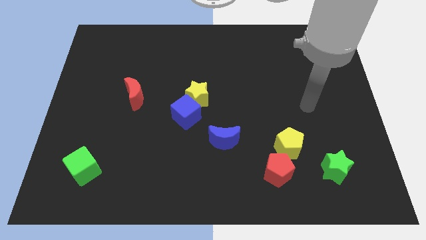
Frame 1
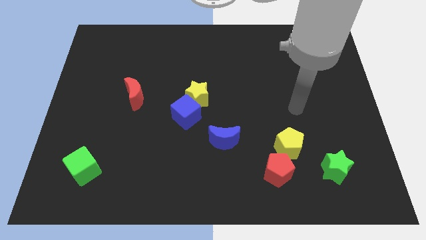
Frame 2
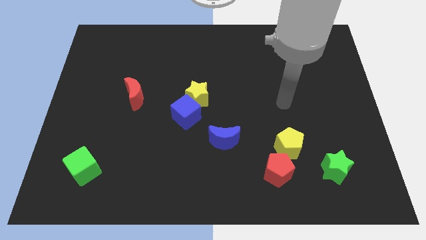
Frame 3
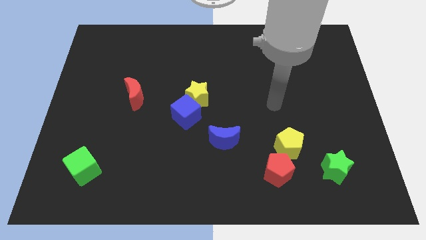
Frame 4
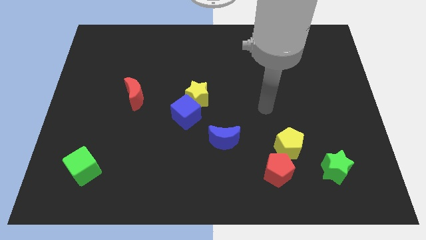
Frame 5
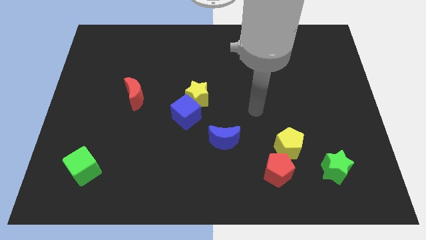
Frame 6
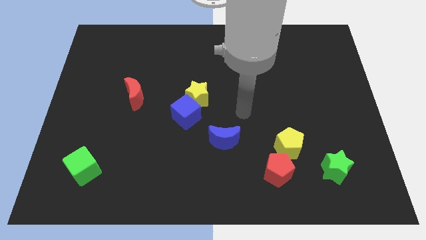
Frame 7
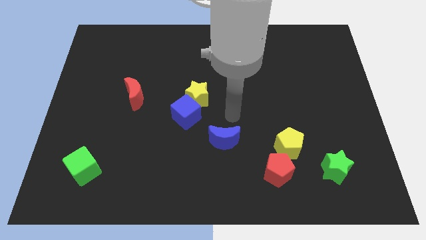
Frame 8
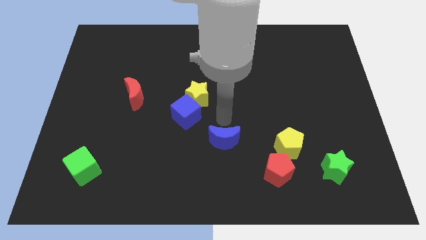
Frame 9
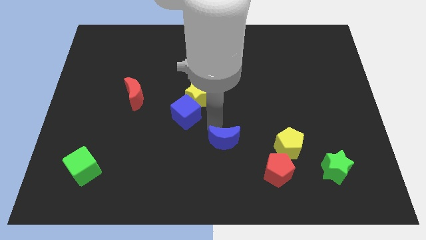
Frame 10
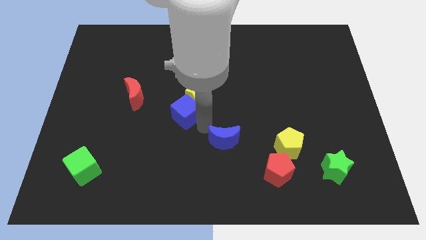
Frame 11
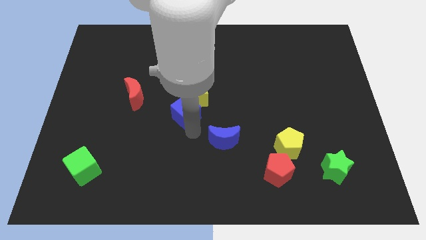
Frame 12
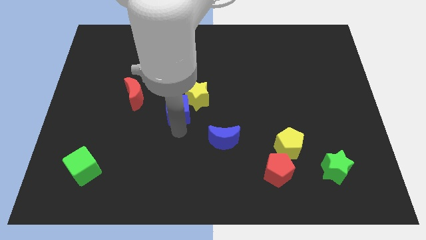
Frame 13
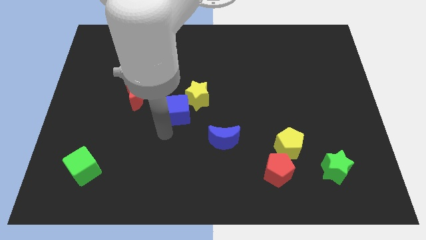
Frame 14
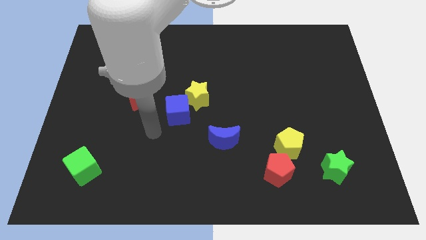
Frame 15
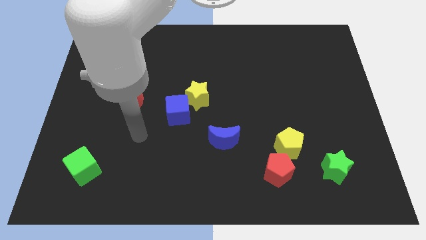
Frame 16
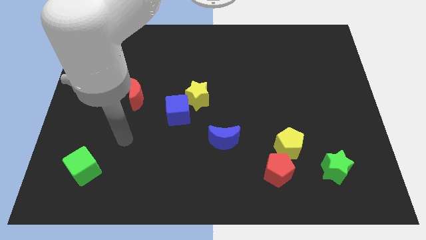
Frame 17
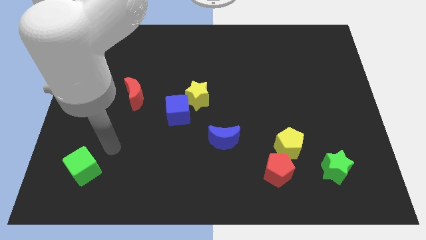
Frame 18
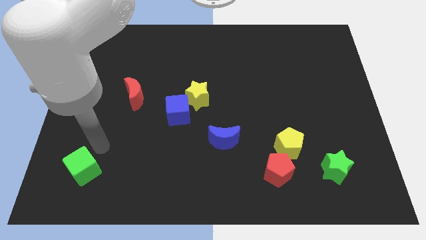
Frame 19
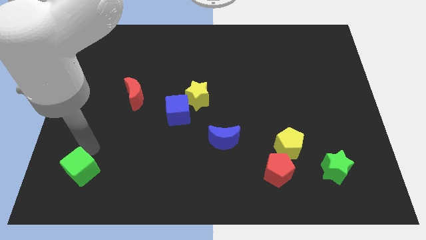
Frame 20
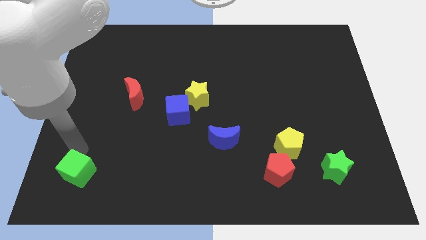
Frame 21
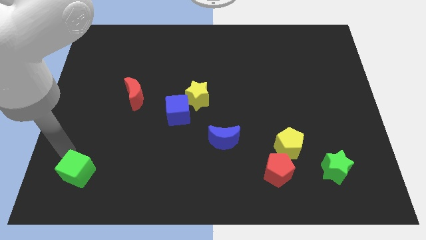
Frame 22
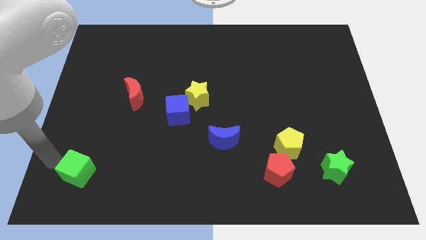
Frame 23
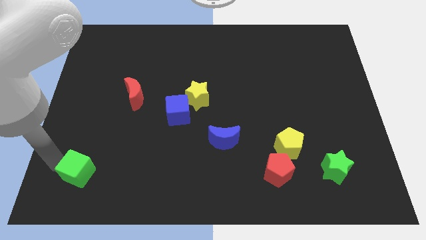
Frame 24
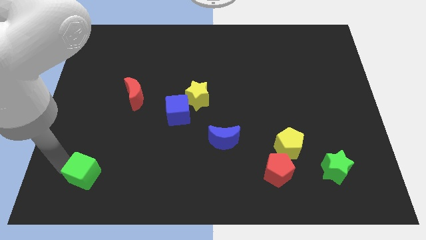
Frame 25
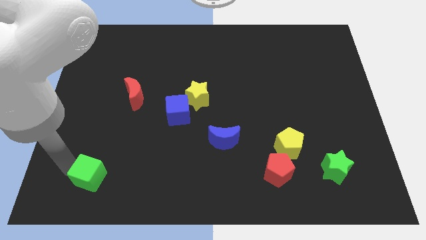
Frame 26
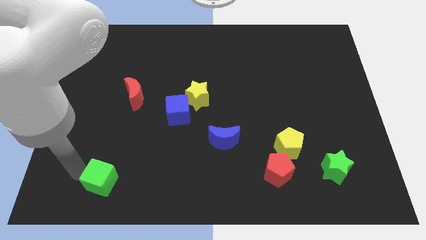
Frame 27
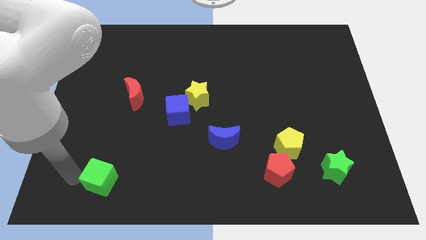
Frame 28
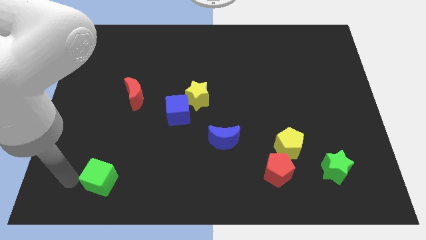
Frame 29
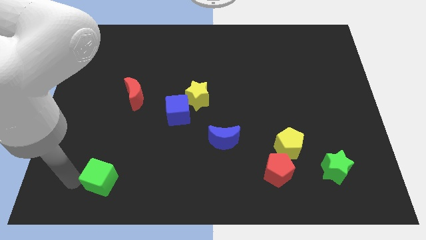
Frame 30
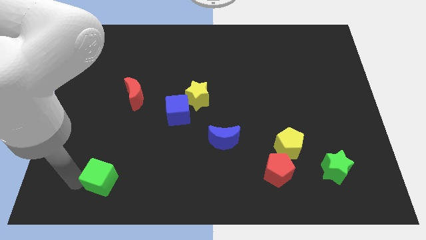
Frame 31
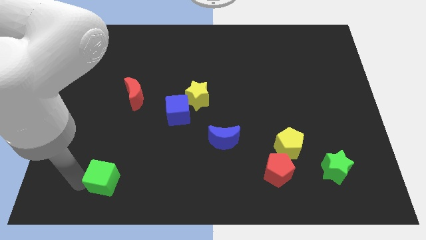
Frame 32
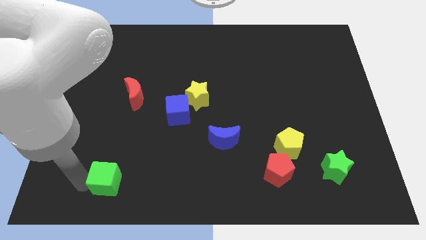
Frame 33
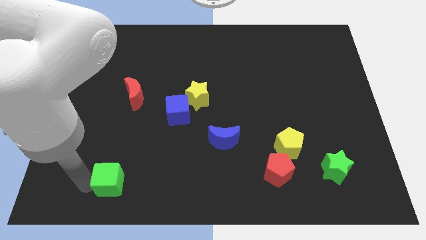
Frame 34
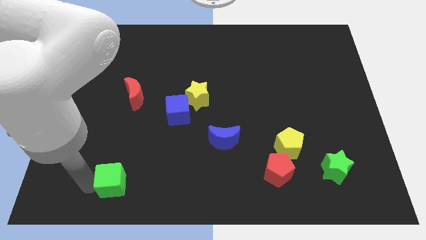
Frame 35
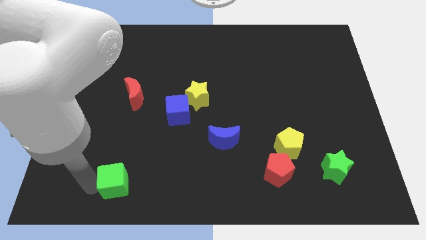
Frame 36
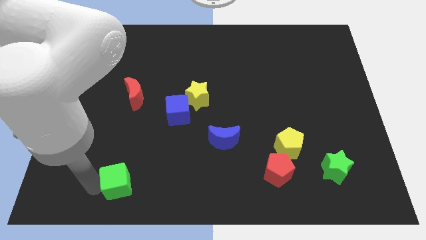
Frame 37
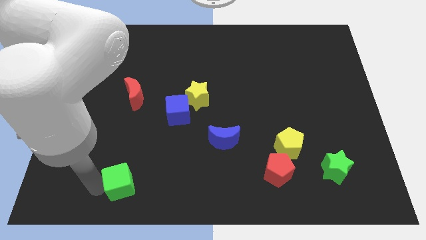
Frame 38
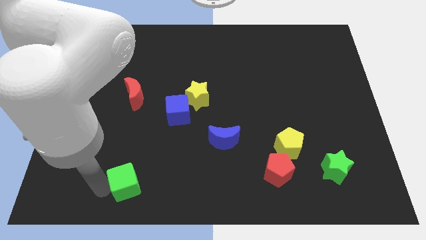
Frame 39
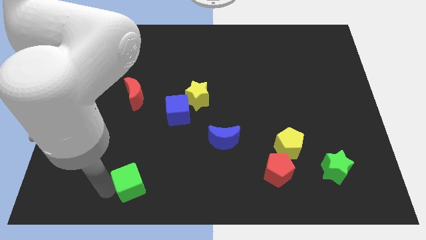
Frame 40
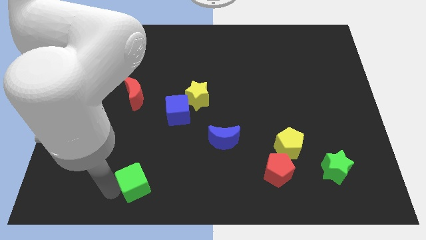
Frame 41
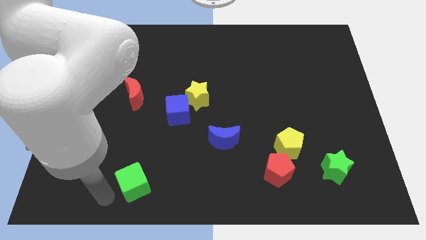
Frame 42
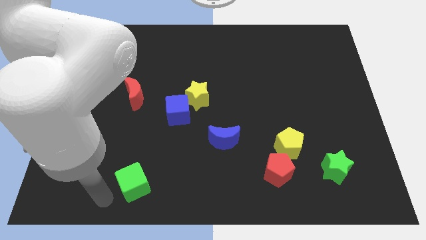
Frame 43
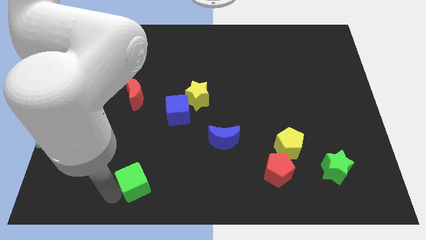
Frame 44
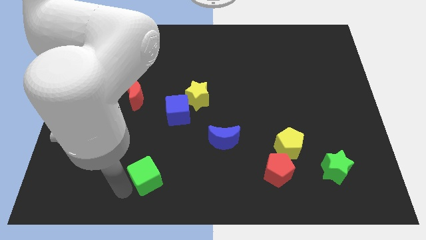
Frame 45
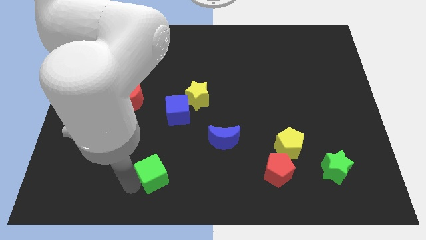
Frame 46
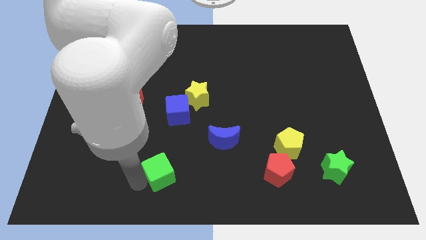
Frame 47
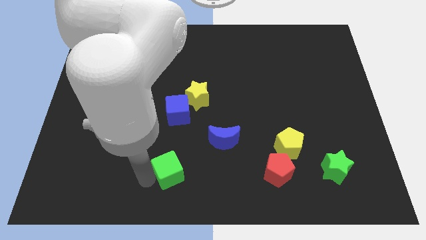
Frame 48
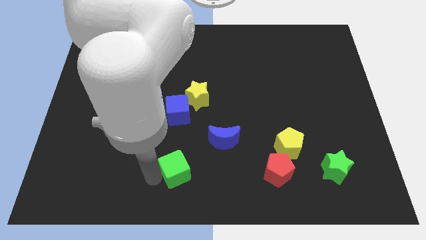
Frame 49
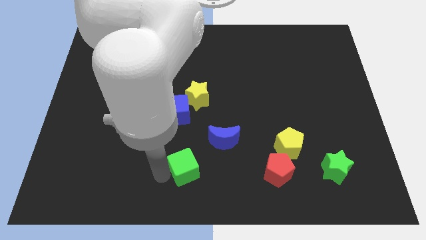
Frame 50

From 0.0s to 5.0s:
push the green cube right

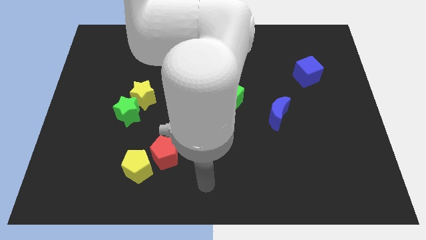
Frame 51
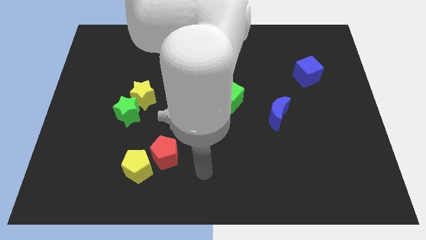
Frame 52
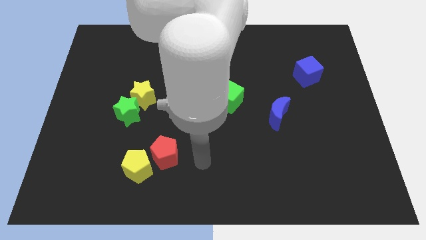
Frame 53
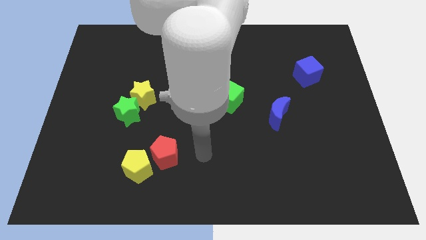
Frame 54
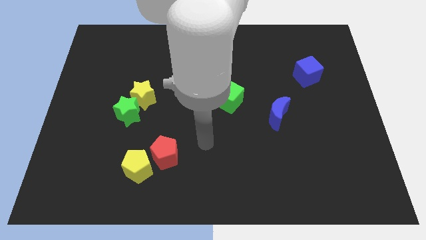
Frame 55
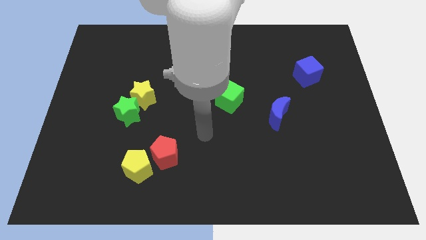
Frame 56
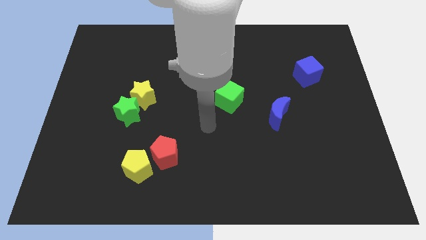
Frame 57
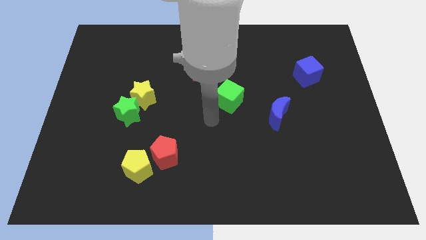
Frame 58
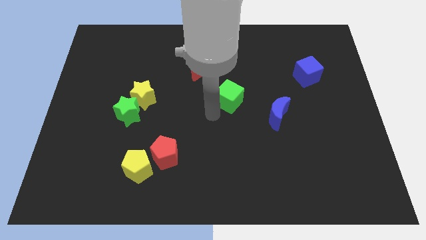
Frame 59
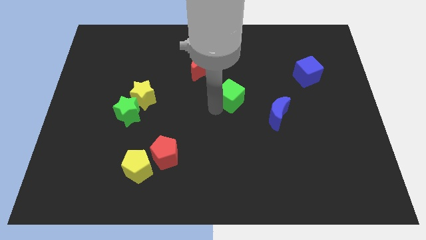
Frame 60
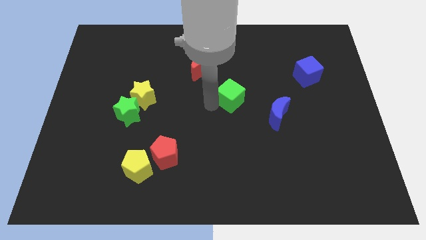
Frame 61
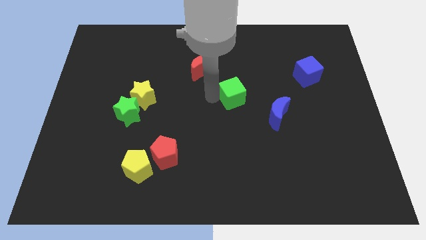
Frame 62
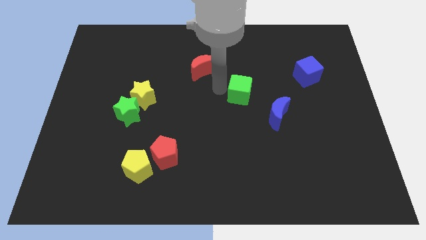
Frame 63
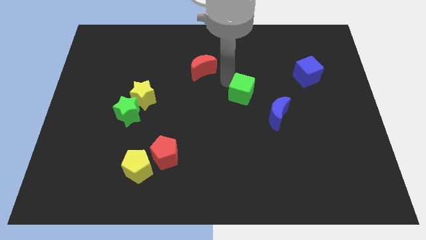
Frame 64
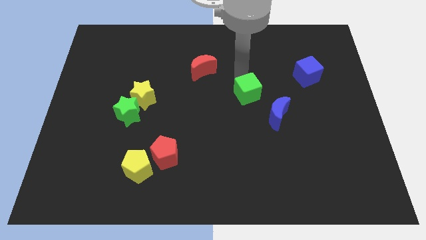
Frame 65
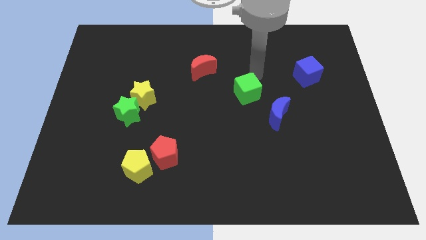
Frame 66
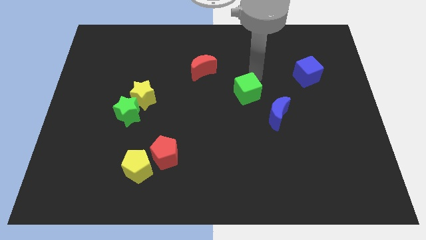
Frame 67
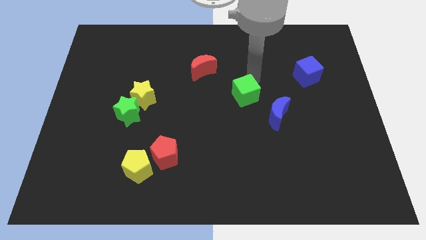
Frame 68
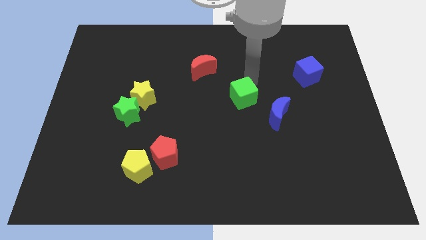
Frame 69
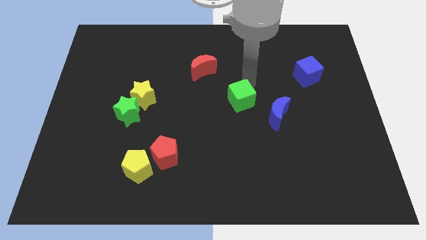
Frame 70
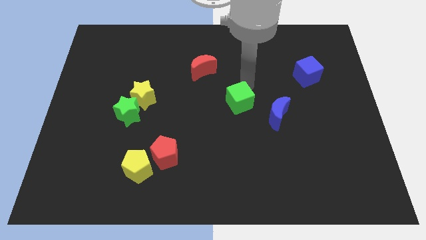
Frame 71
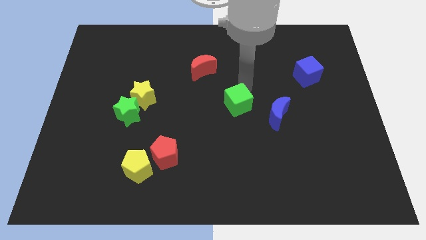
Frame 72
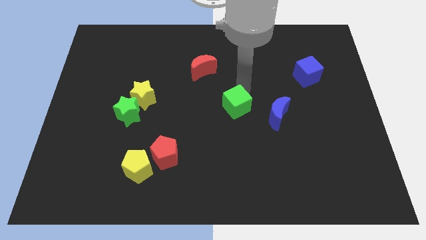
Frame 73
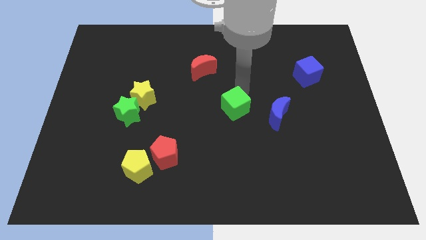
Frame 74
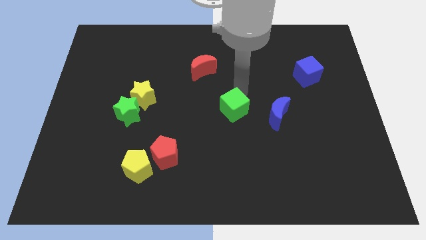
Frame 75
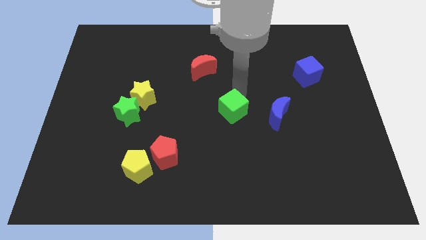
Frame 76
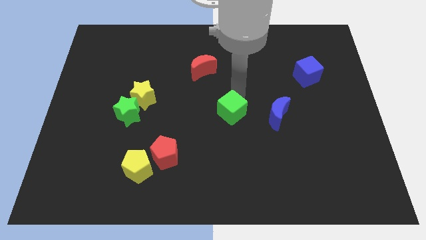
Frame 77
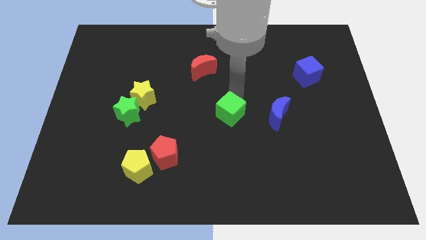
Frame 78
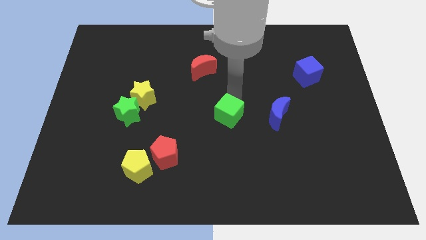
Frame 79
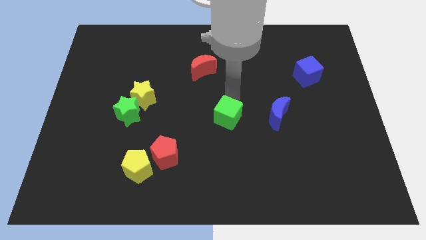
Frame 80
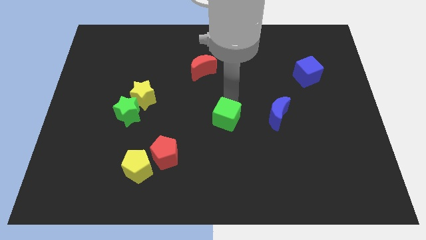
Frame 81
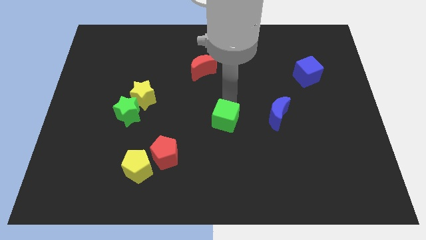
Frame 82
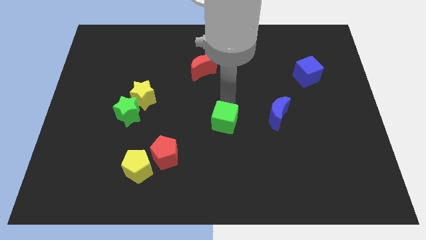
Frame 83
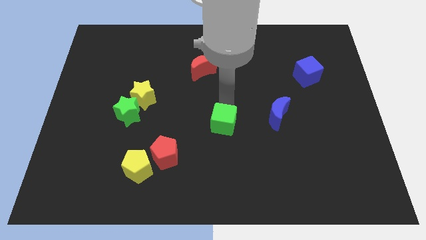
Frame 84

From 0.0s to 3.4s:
move the green cube down slightly
